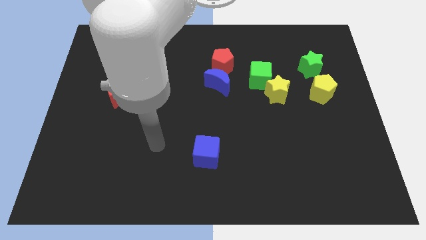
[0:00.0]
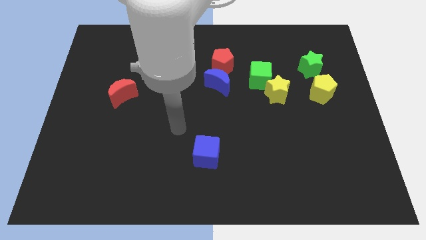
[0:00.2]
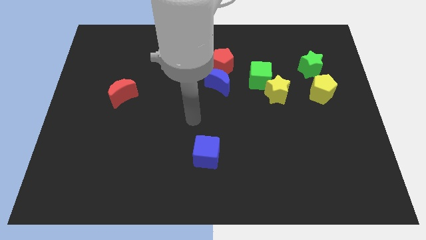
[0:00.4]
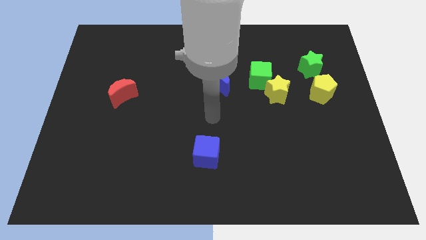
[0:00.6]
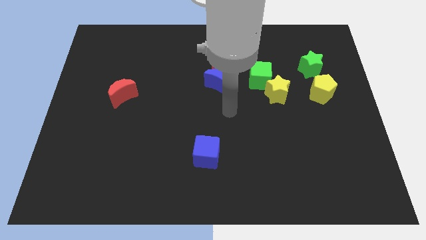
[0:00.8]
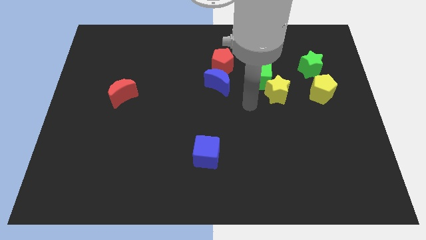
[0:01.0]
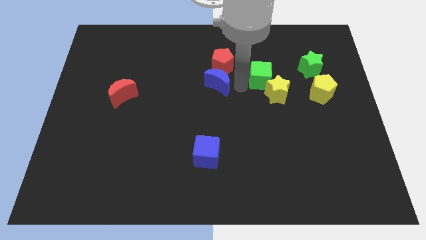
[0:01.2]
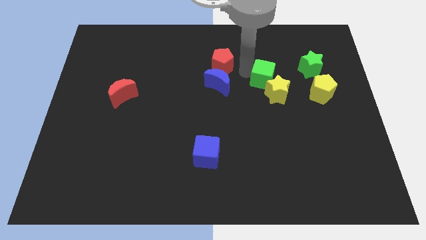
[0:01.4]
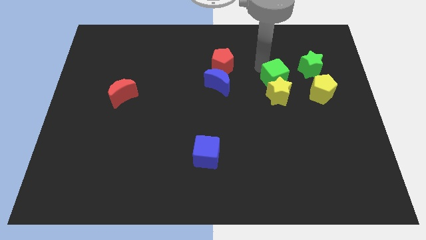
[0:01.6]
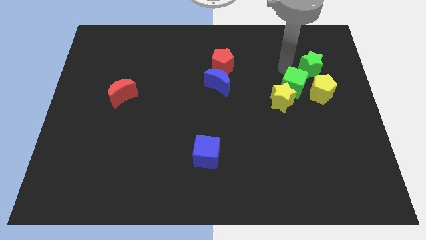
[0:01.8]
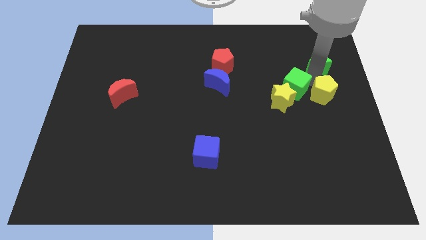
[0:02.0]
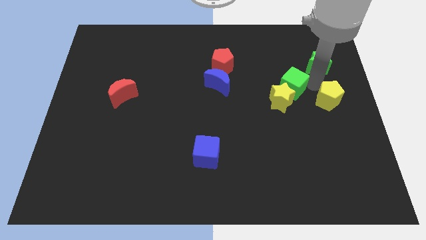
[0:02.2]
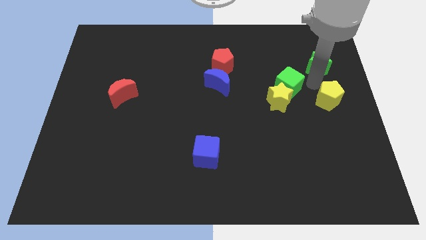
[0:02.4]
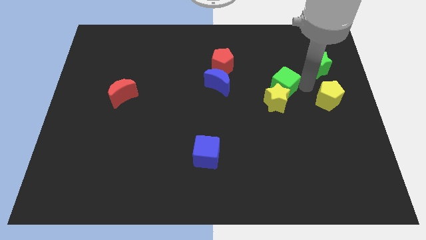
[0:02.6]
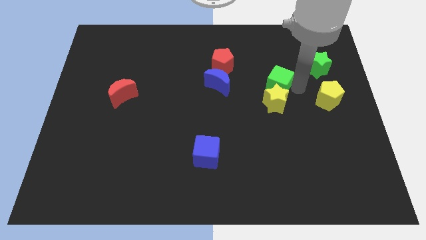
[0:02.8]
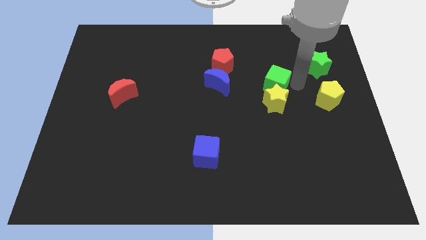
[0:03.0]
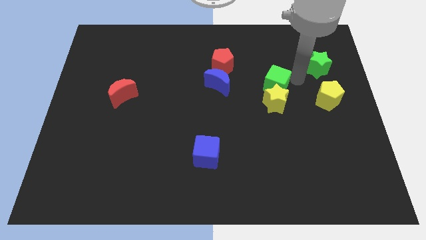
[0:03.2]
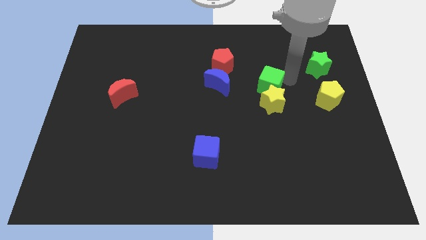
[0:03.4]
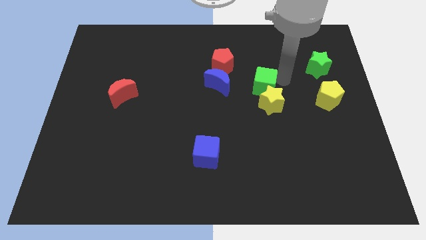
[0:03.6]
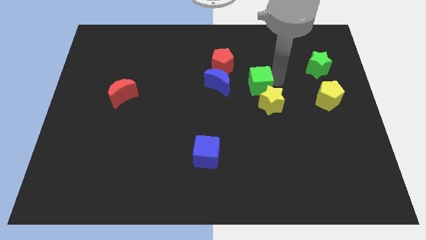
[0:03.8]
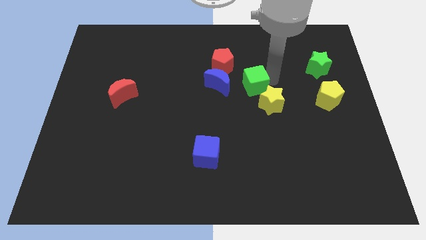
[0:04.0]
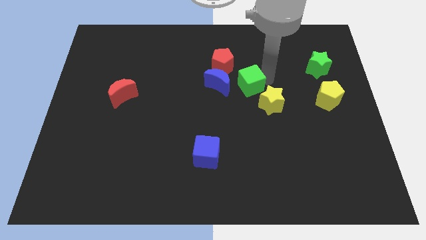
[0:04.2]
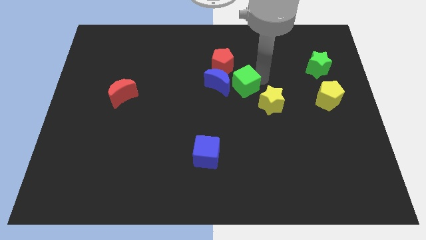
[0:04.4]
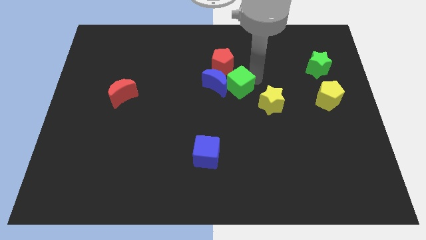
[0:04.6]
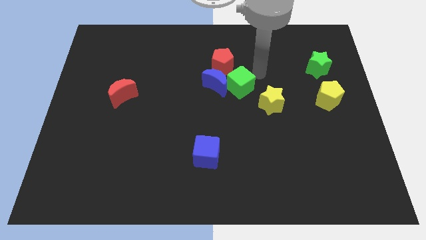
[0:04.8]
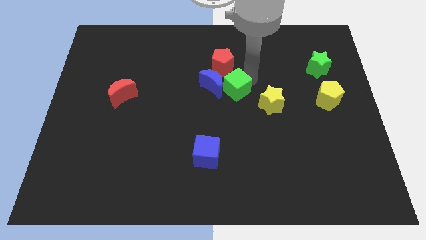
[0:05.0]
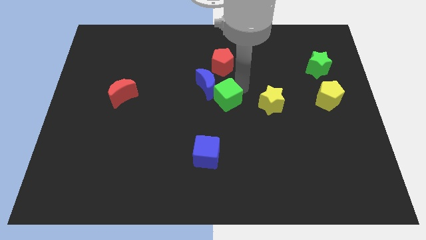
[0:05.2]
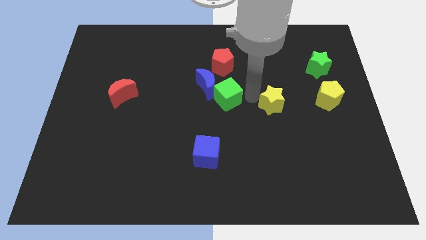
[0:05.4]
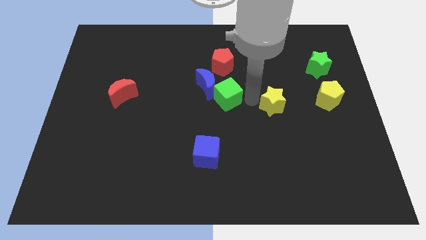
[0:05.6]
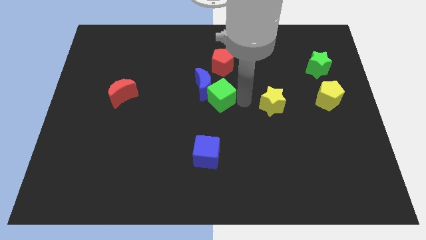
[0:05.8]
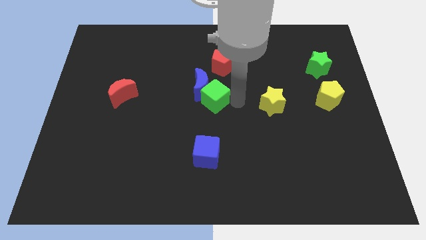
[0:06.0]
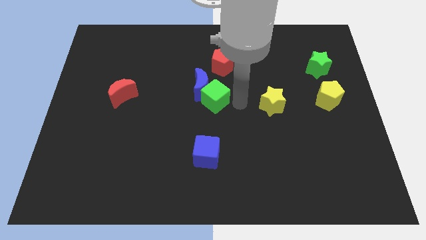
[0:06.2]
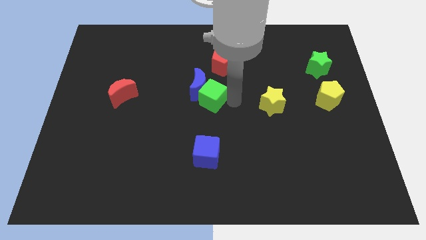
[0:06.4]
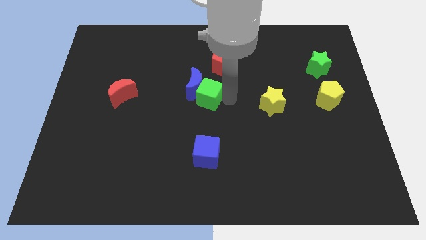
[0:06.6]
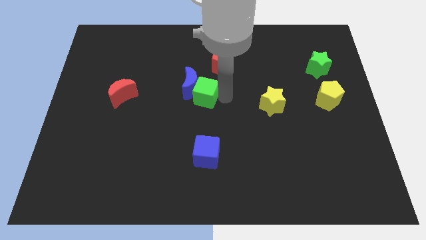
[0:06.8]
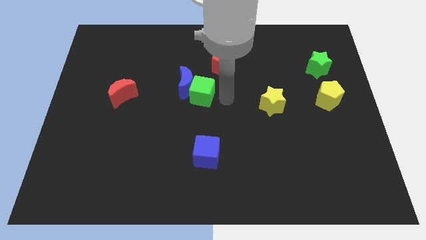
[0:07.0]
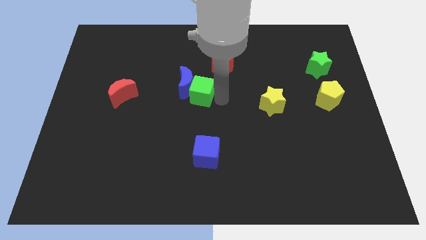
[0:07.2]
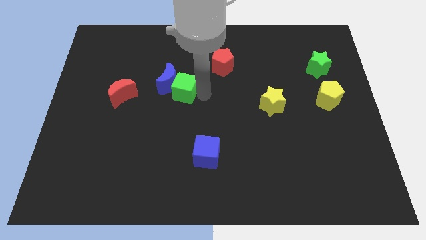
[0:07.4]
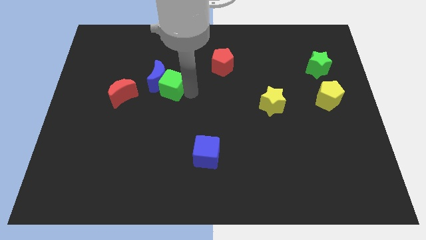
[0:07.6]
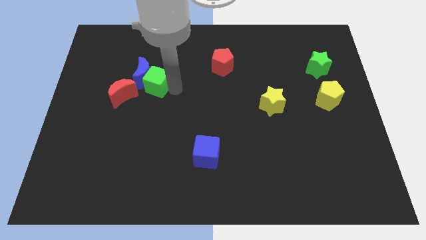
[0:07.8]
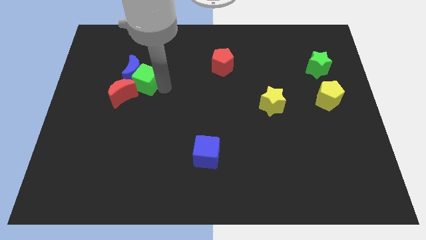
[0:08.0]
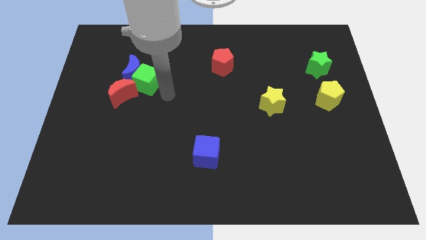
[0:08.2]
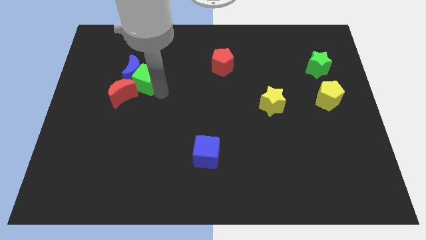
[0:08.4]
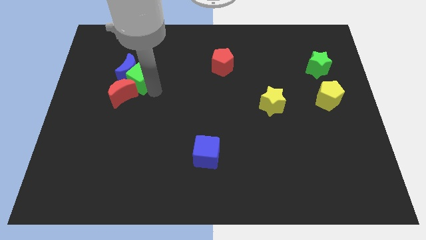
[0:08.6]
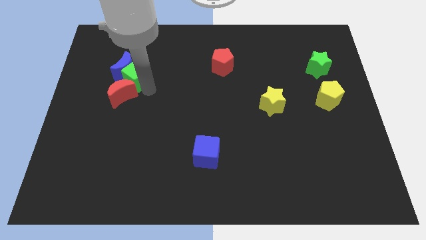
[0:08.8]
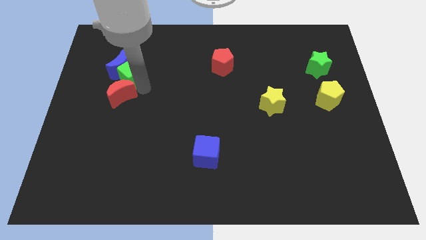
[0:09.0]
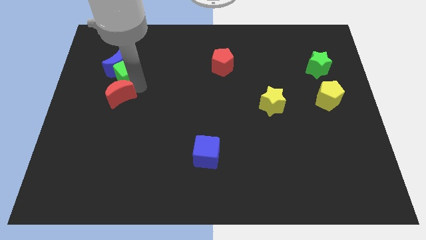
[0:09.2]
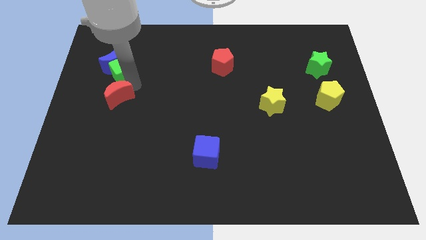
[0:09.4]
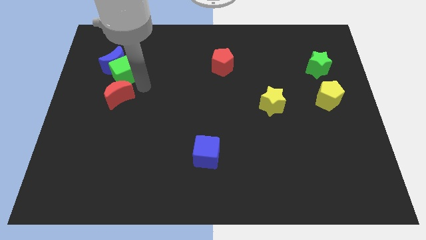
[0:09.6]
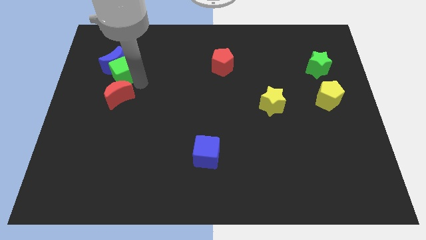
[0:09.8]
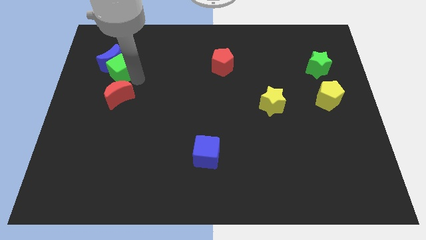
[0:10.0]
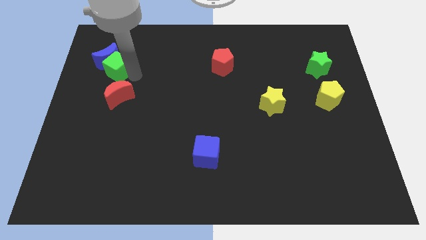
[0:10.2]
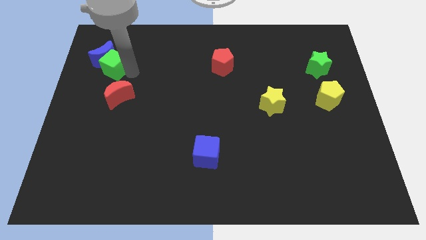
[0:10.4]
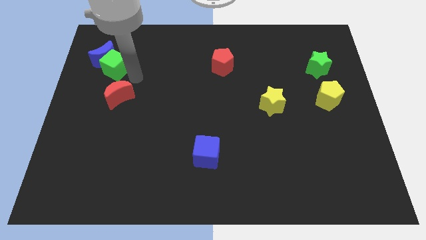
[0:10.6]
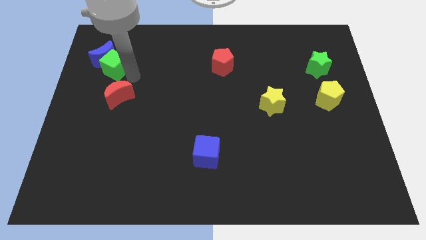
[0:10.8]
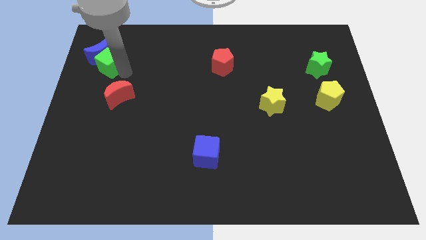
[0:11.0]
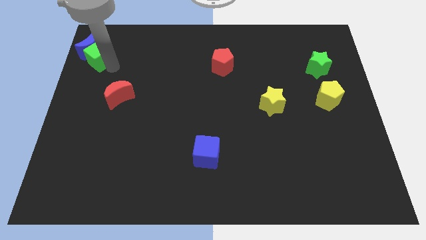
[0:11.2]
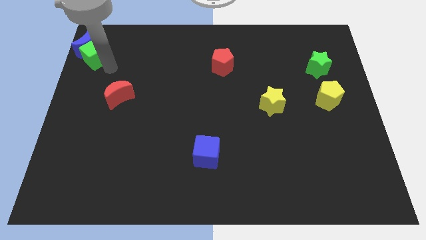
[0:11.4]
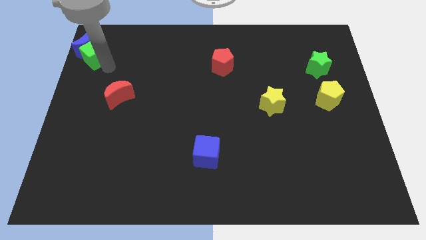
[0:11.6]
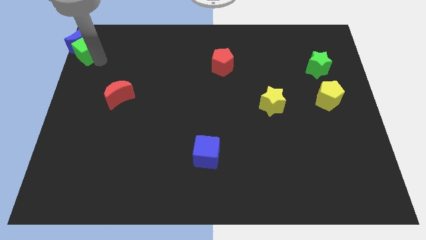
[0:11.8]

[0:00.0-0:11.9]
move the green cube to the top left

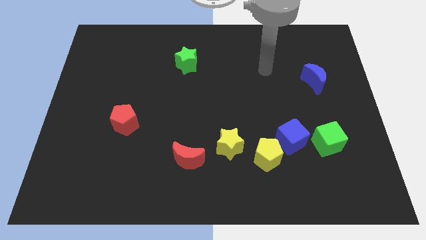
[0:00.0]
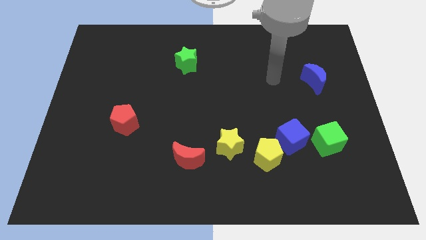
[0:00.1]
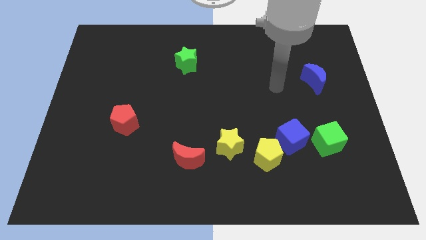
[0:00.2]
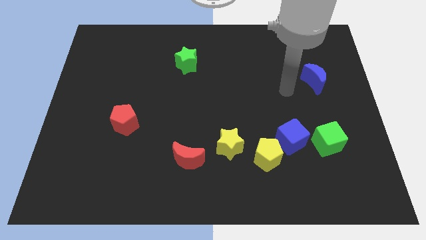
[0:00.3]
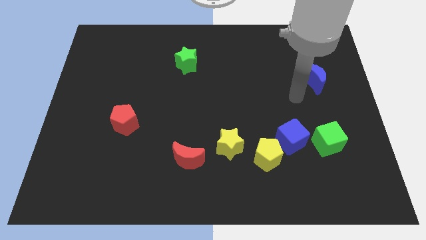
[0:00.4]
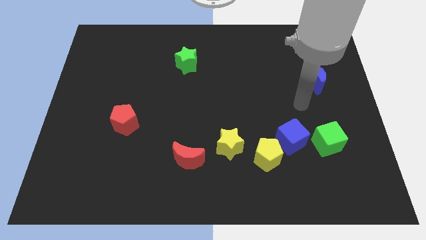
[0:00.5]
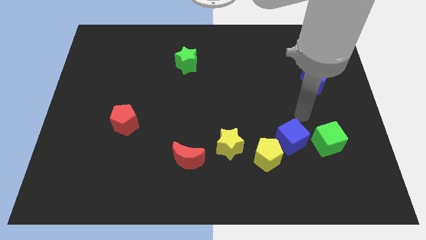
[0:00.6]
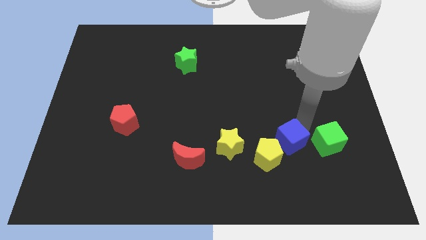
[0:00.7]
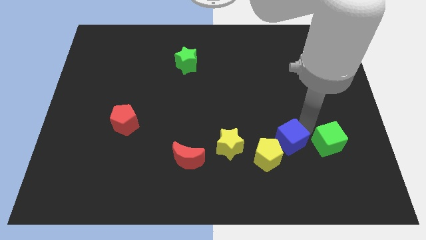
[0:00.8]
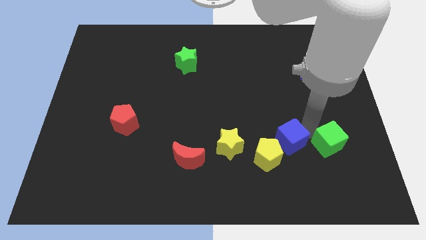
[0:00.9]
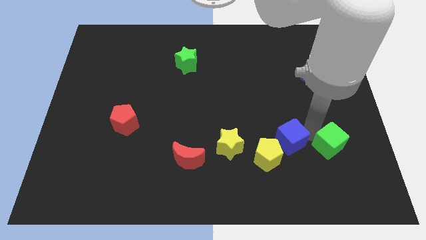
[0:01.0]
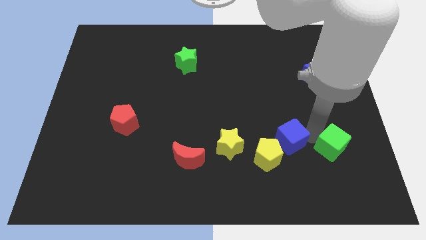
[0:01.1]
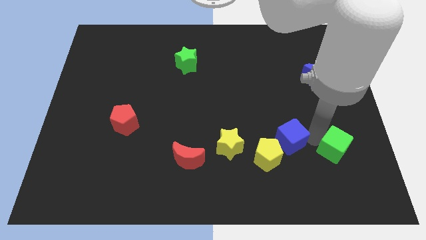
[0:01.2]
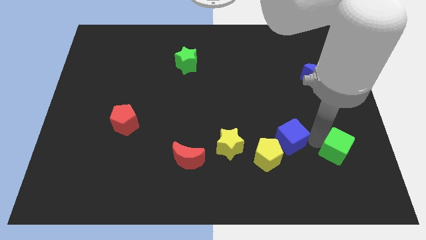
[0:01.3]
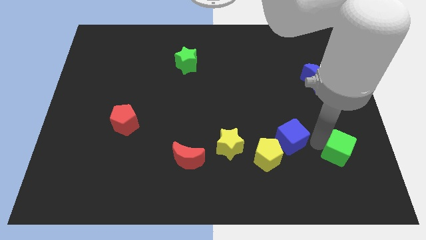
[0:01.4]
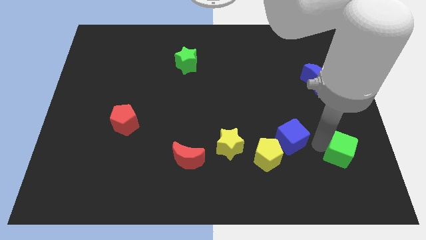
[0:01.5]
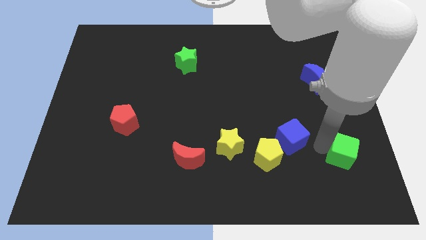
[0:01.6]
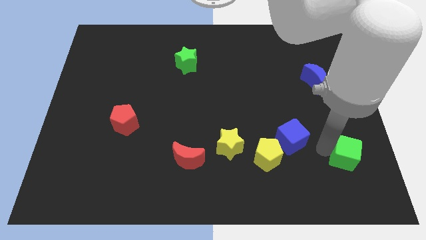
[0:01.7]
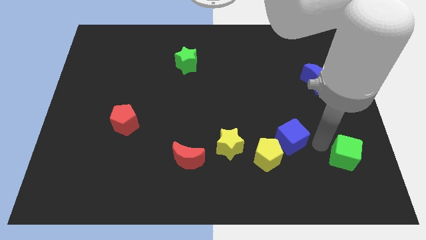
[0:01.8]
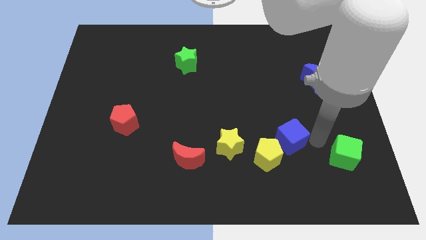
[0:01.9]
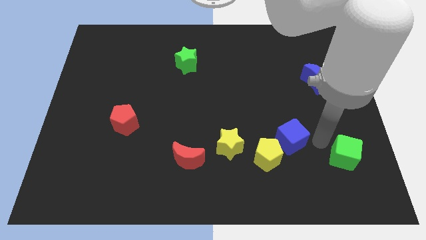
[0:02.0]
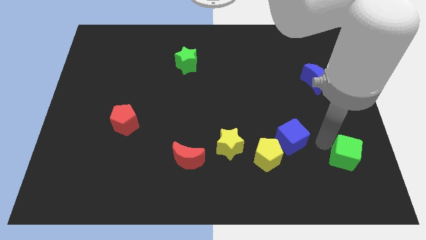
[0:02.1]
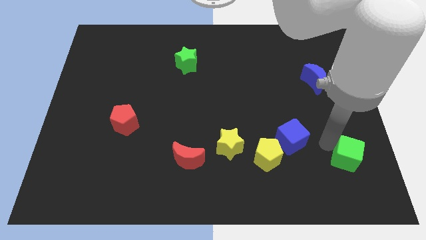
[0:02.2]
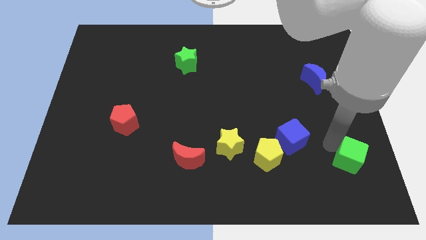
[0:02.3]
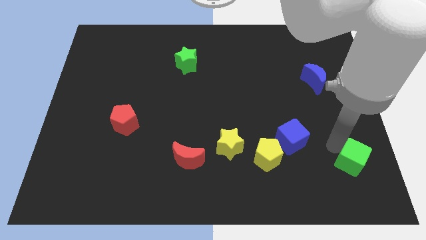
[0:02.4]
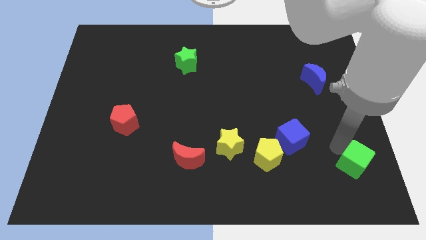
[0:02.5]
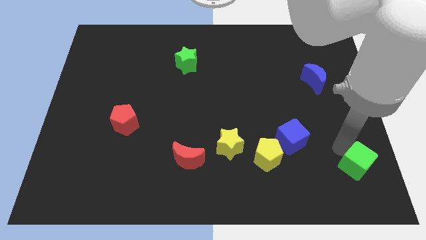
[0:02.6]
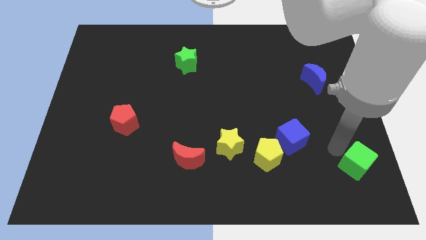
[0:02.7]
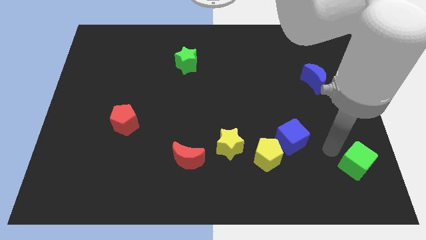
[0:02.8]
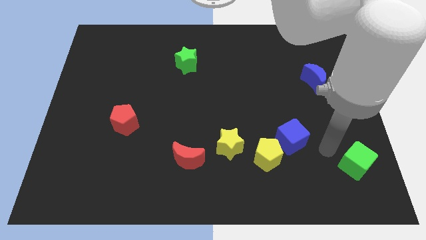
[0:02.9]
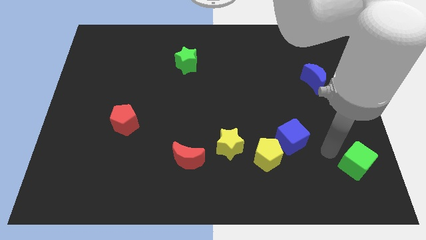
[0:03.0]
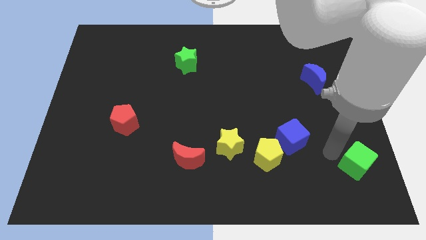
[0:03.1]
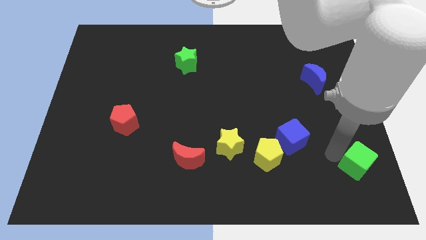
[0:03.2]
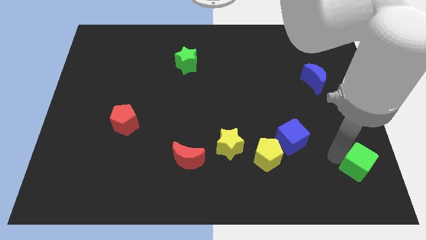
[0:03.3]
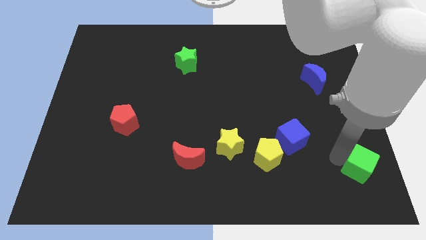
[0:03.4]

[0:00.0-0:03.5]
slide the green cube to the bottom right of the board
